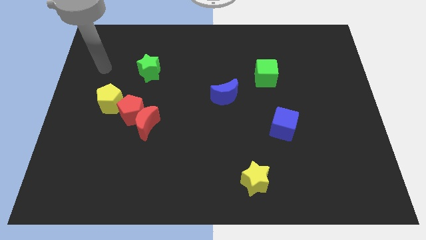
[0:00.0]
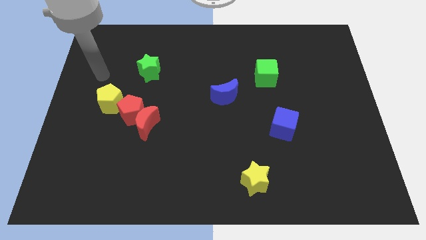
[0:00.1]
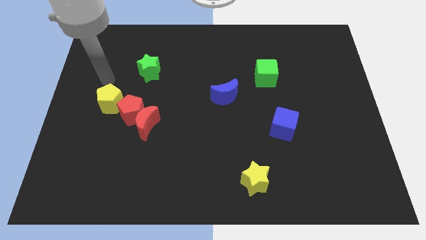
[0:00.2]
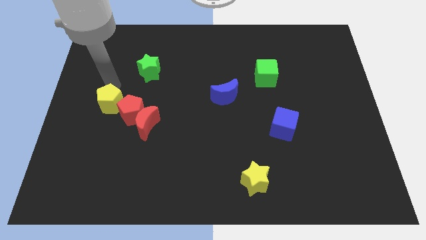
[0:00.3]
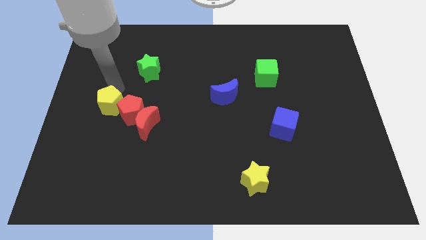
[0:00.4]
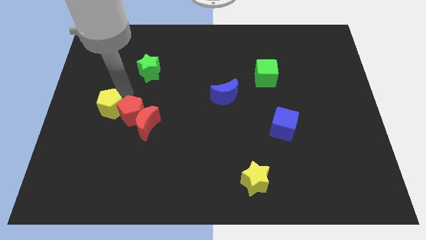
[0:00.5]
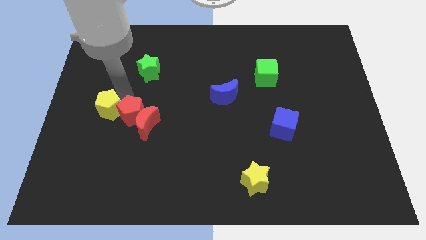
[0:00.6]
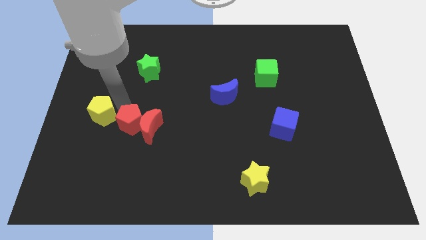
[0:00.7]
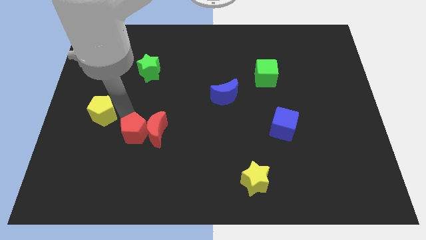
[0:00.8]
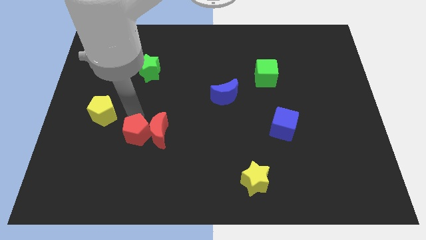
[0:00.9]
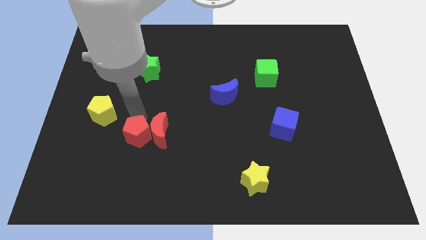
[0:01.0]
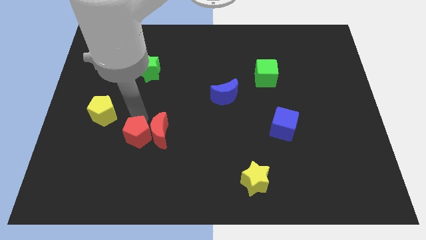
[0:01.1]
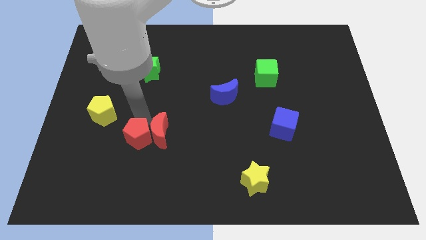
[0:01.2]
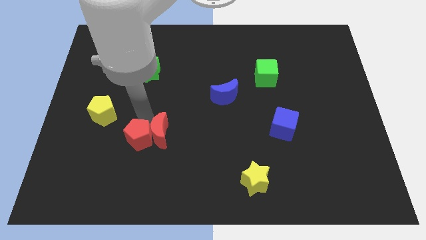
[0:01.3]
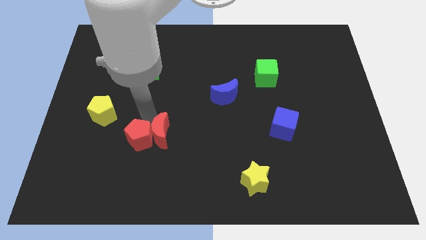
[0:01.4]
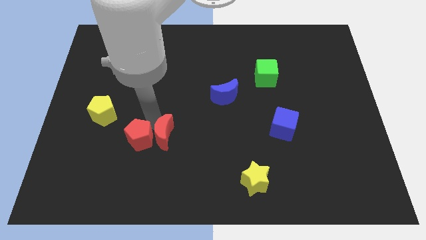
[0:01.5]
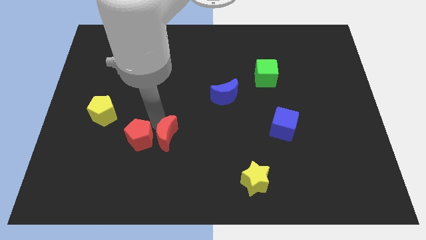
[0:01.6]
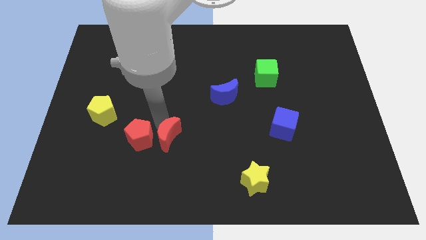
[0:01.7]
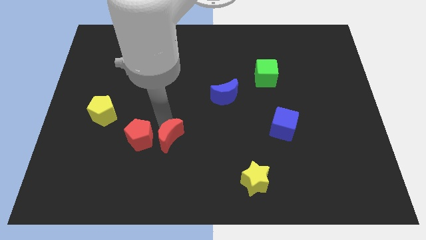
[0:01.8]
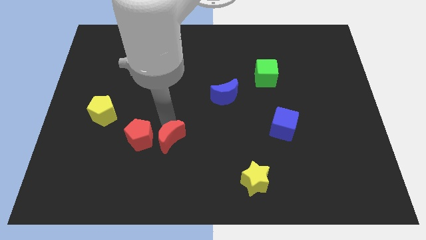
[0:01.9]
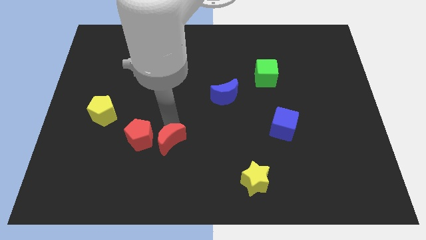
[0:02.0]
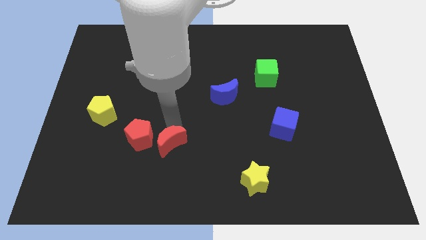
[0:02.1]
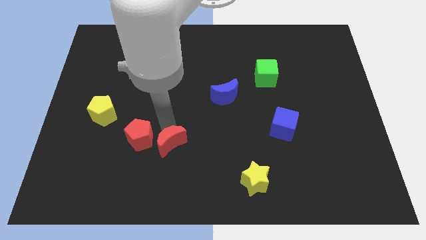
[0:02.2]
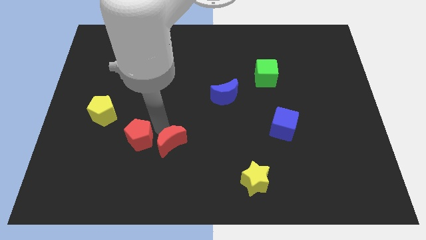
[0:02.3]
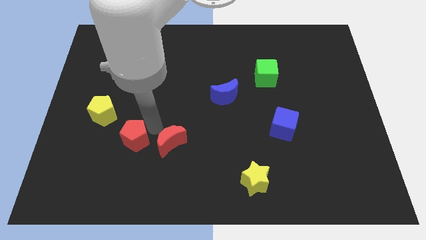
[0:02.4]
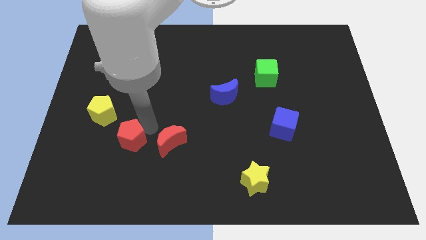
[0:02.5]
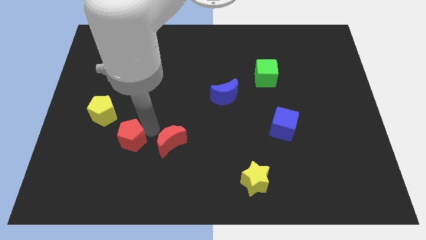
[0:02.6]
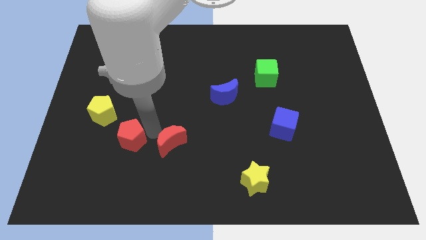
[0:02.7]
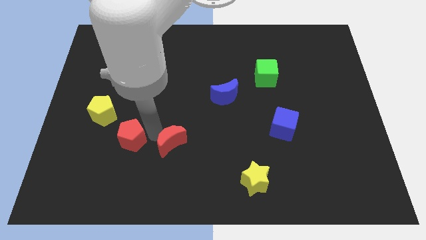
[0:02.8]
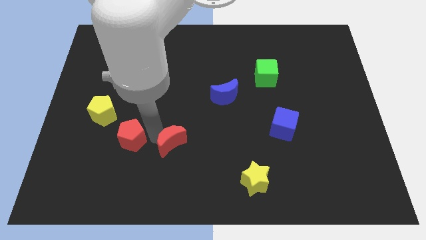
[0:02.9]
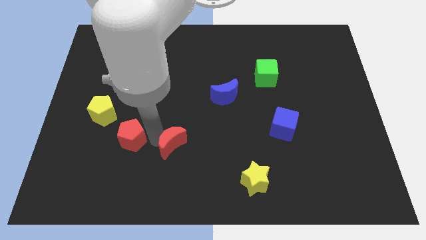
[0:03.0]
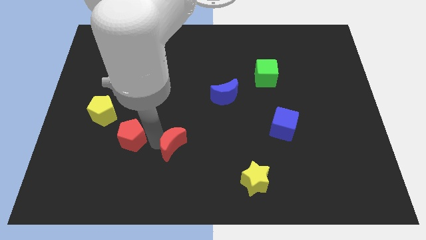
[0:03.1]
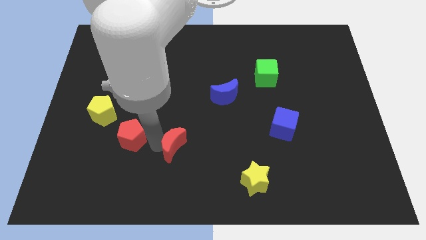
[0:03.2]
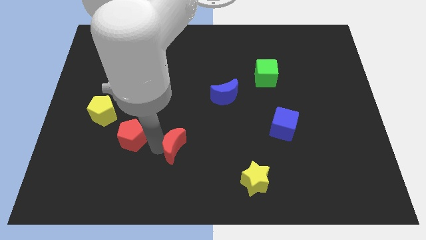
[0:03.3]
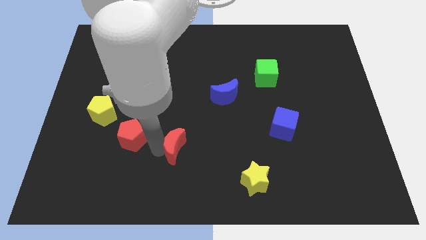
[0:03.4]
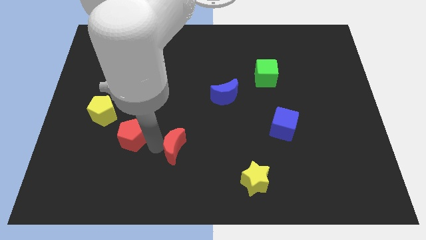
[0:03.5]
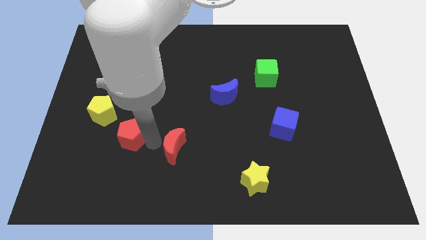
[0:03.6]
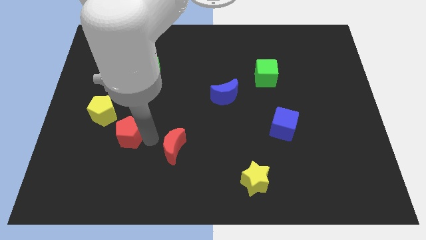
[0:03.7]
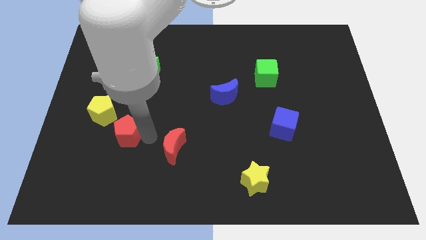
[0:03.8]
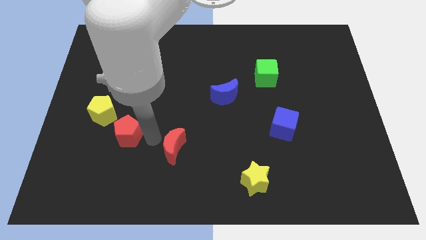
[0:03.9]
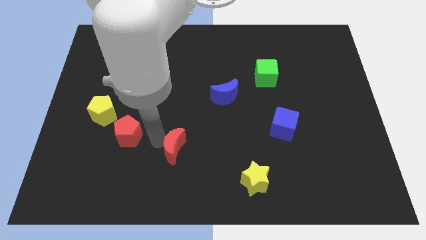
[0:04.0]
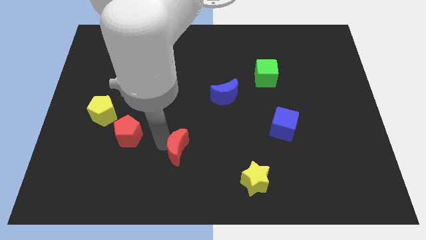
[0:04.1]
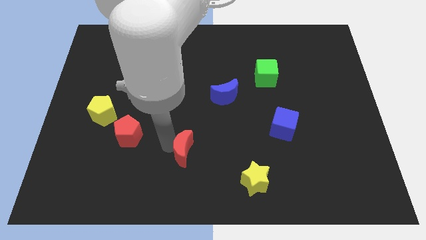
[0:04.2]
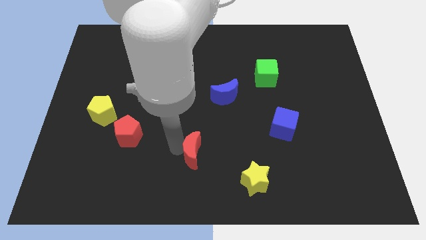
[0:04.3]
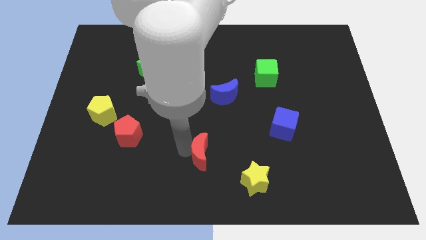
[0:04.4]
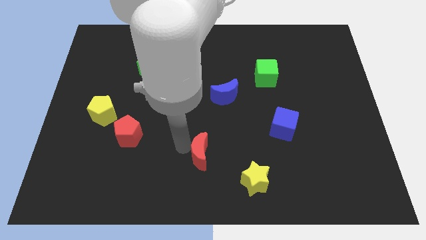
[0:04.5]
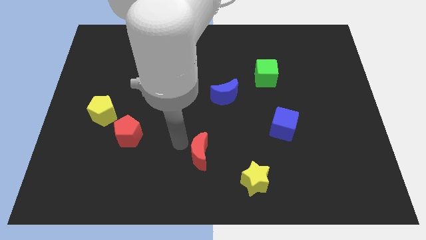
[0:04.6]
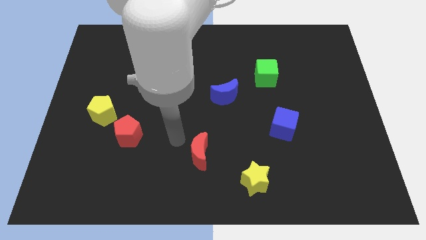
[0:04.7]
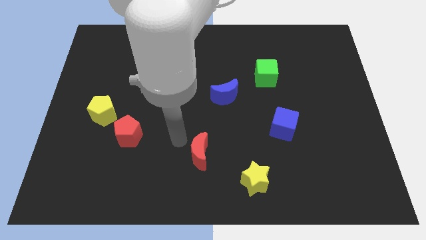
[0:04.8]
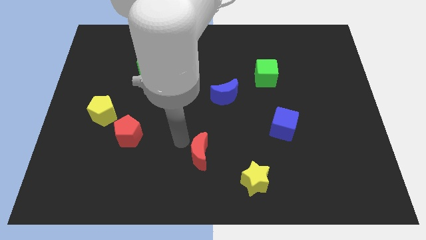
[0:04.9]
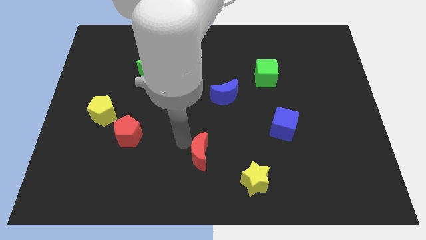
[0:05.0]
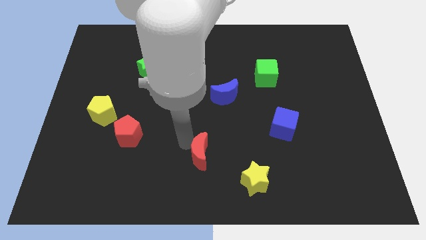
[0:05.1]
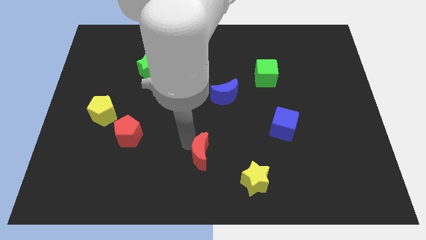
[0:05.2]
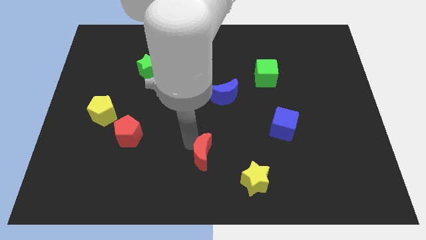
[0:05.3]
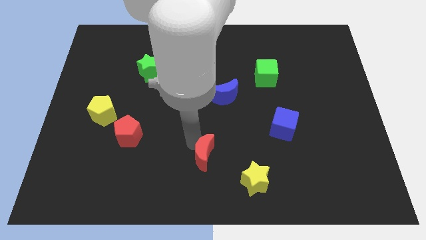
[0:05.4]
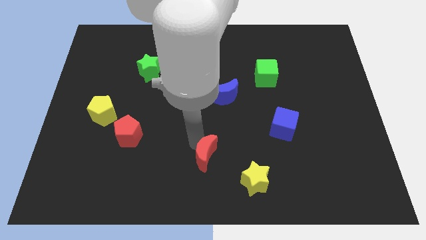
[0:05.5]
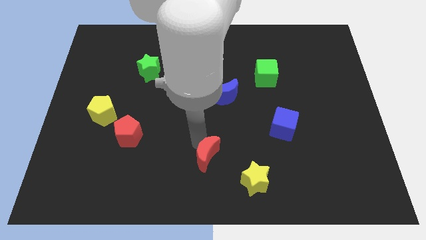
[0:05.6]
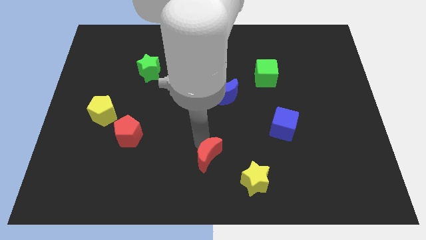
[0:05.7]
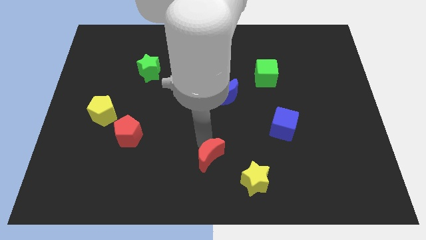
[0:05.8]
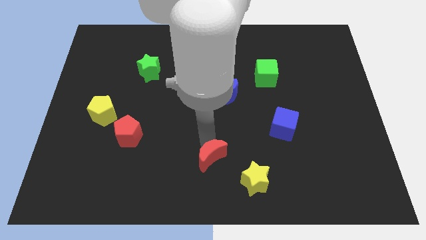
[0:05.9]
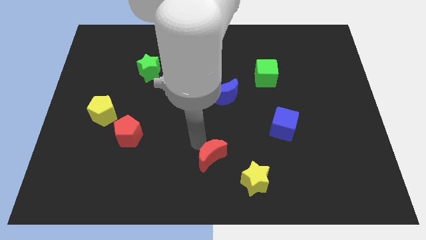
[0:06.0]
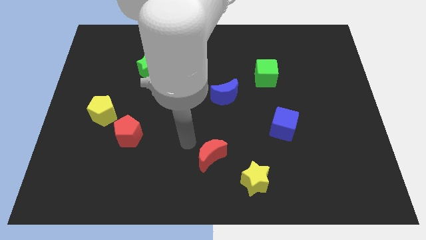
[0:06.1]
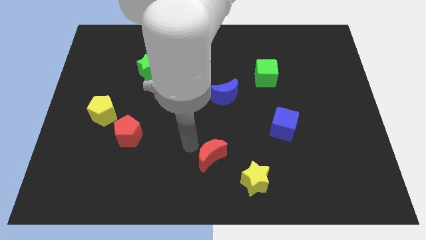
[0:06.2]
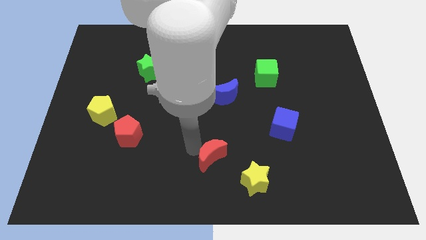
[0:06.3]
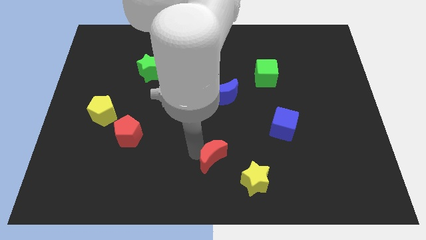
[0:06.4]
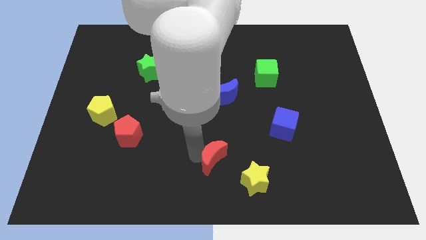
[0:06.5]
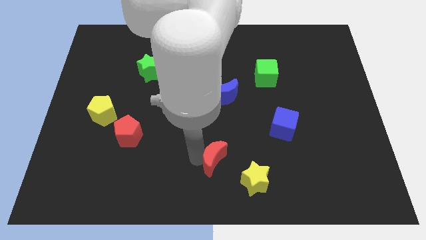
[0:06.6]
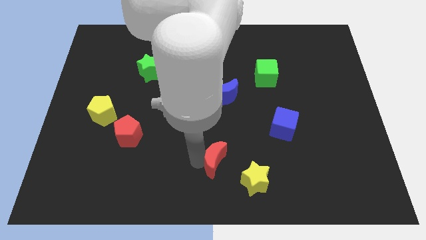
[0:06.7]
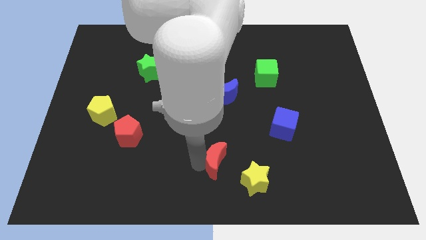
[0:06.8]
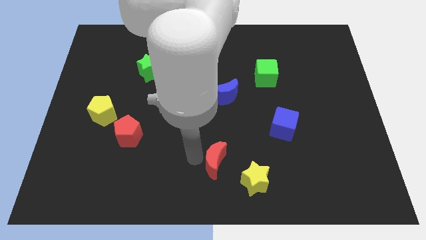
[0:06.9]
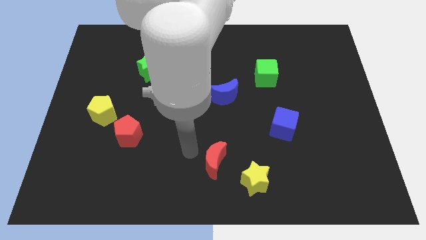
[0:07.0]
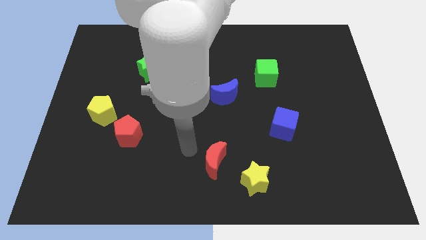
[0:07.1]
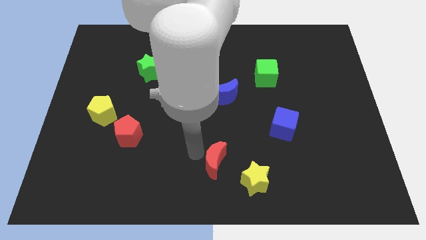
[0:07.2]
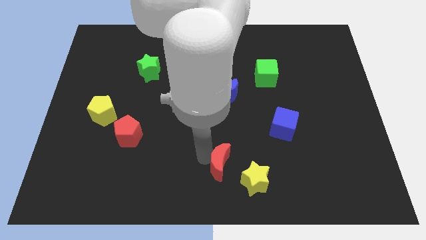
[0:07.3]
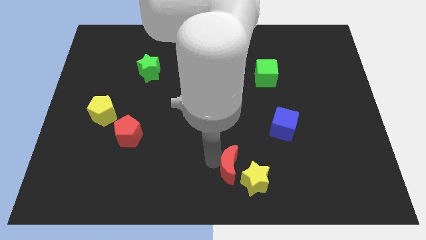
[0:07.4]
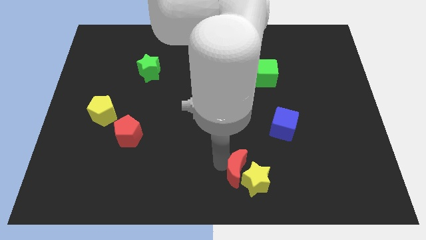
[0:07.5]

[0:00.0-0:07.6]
put the red moon to the yellow star
